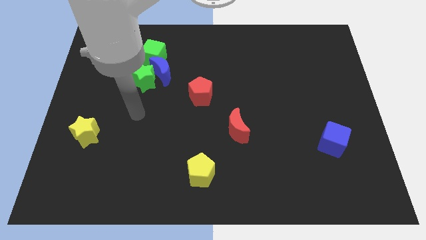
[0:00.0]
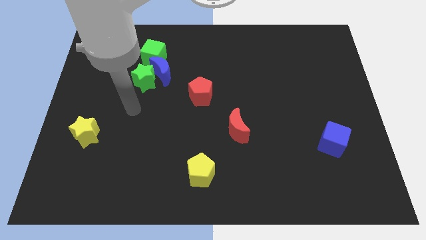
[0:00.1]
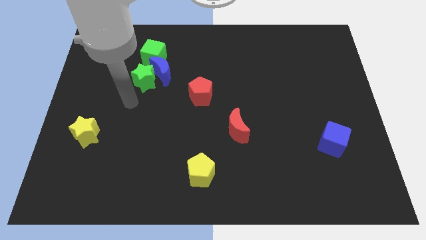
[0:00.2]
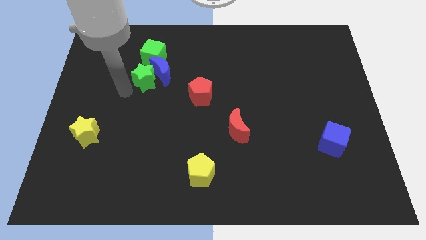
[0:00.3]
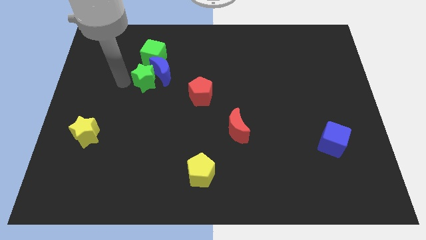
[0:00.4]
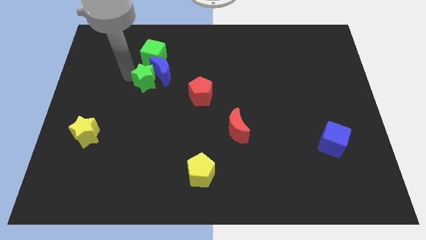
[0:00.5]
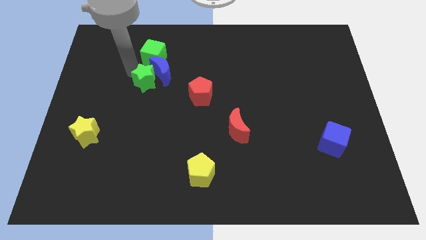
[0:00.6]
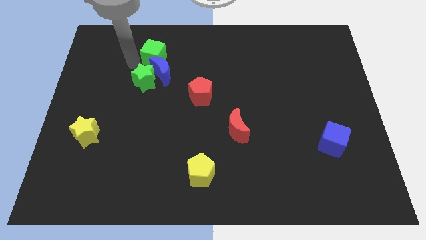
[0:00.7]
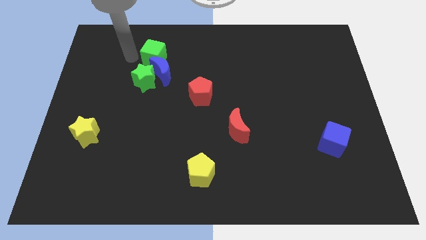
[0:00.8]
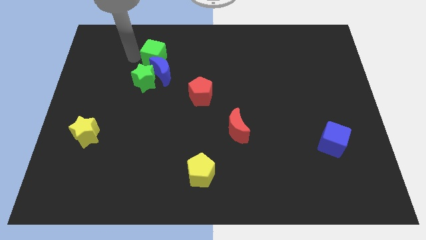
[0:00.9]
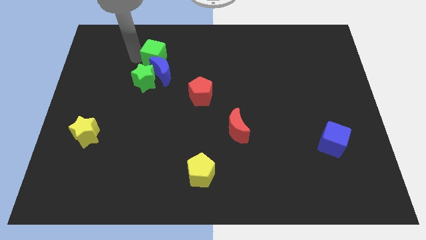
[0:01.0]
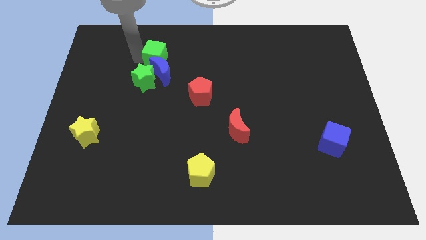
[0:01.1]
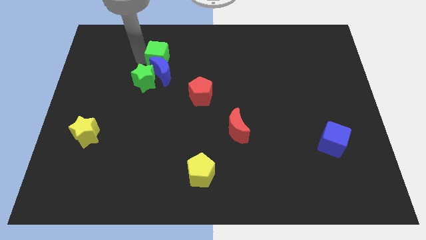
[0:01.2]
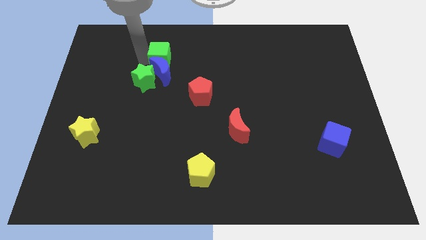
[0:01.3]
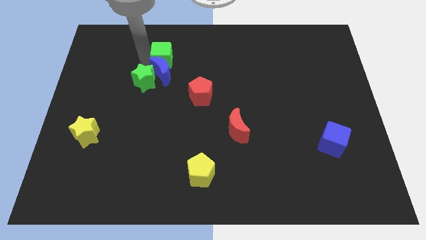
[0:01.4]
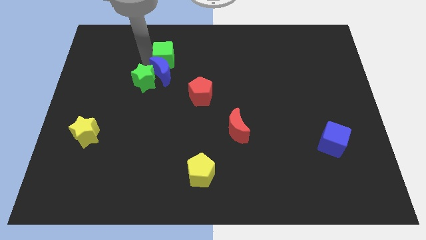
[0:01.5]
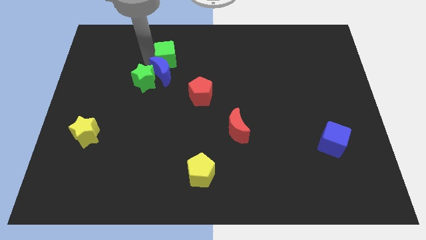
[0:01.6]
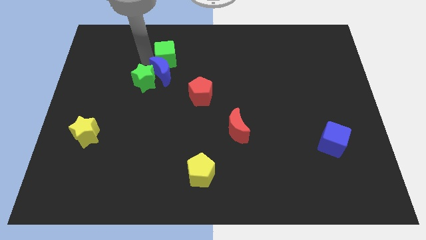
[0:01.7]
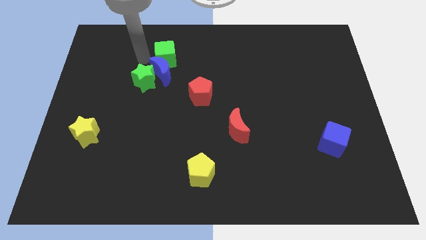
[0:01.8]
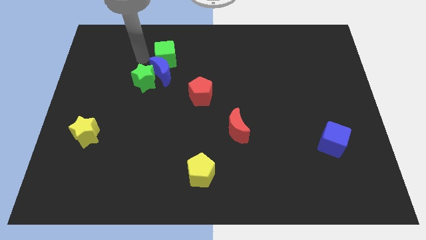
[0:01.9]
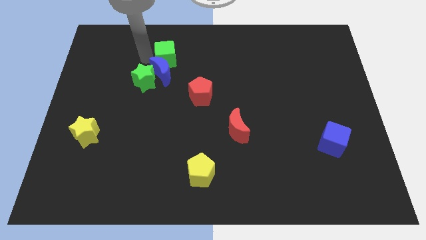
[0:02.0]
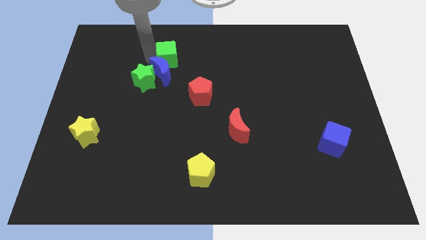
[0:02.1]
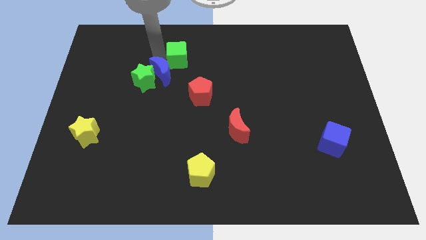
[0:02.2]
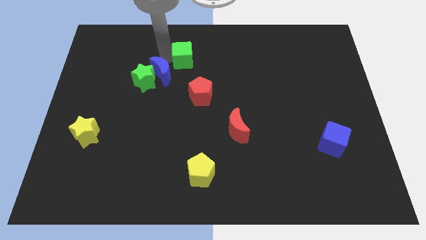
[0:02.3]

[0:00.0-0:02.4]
move the green cube a little bit right

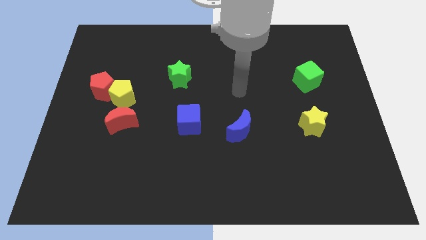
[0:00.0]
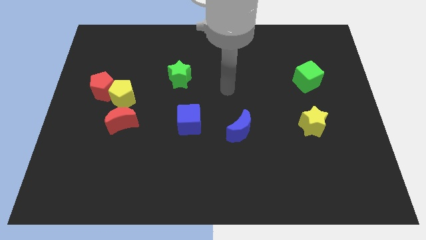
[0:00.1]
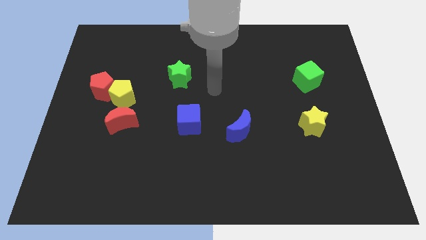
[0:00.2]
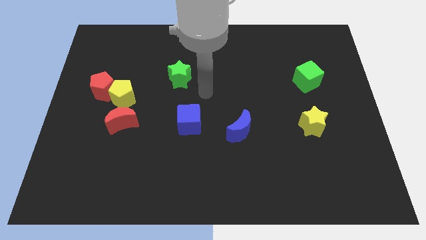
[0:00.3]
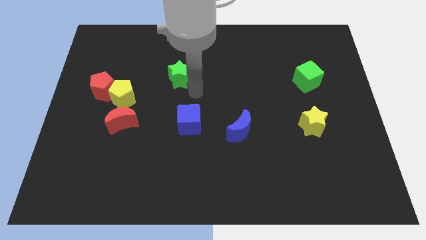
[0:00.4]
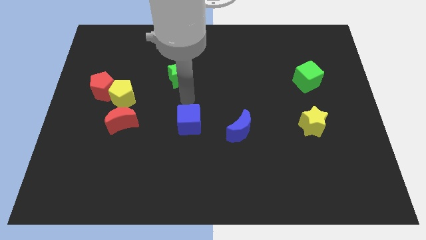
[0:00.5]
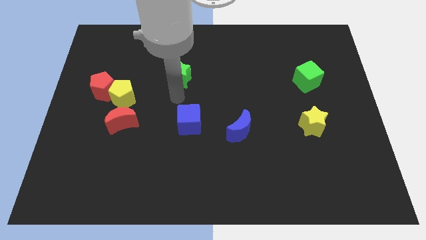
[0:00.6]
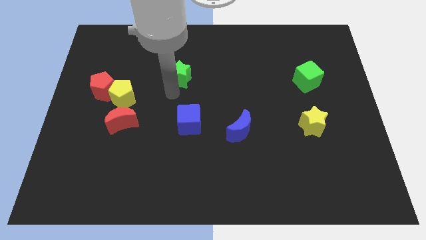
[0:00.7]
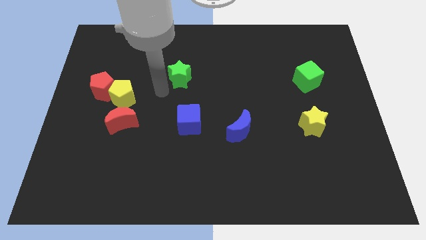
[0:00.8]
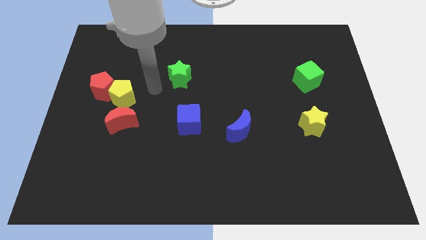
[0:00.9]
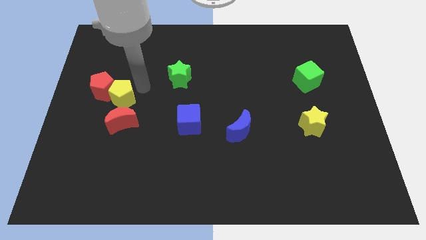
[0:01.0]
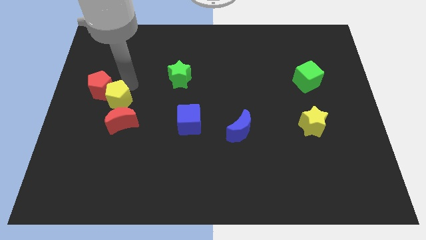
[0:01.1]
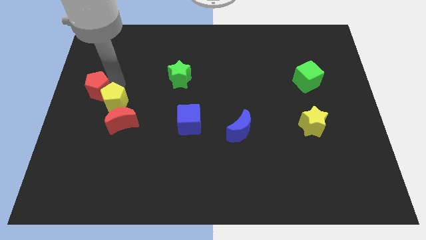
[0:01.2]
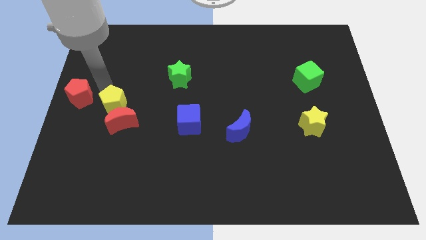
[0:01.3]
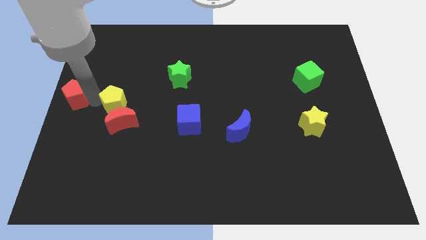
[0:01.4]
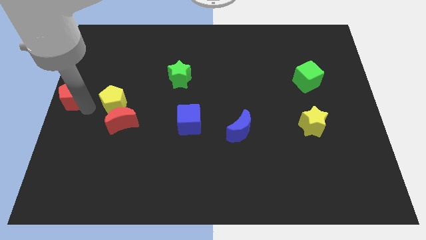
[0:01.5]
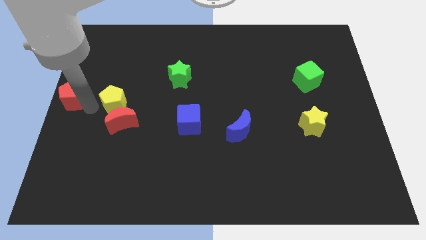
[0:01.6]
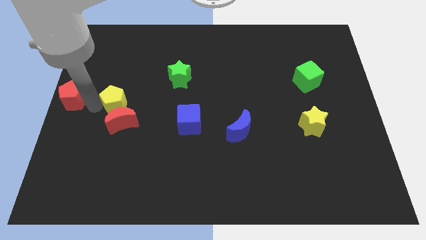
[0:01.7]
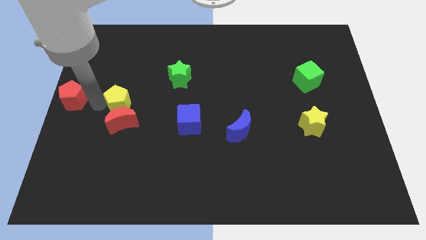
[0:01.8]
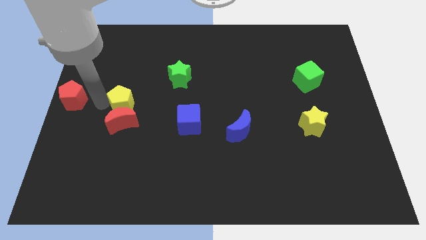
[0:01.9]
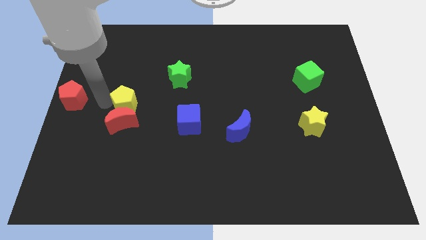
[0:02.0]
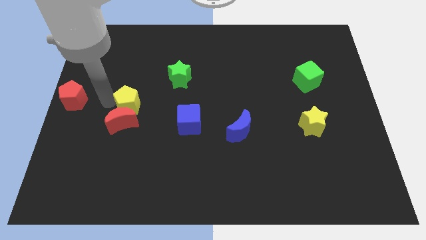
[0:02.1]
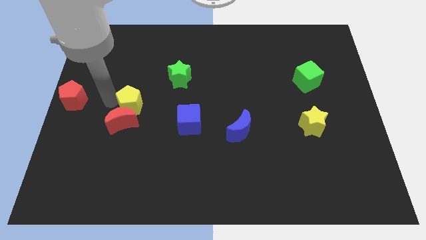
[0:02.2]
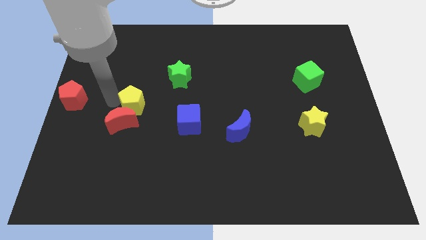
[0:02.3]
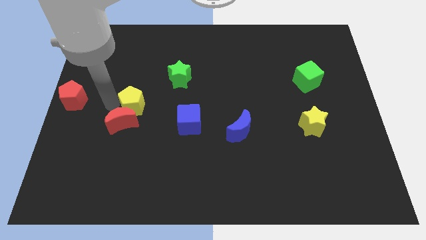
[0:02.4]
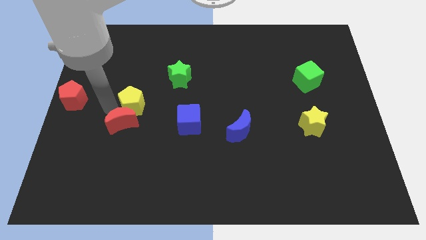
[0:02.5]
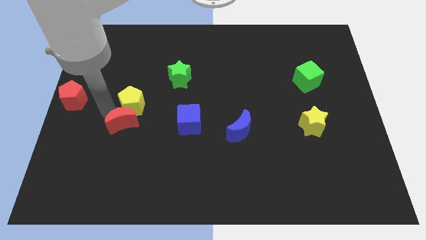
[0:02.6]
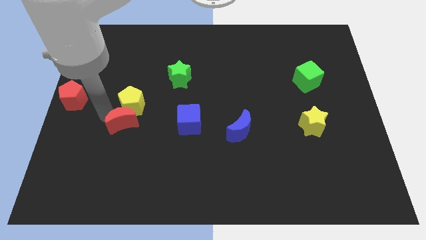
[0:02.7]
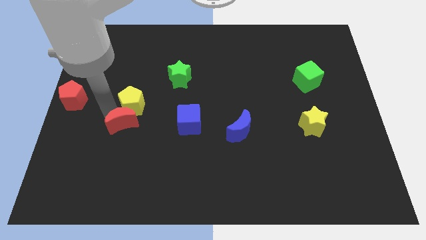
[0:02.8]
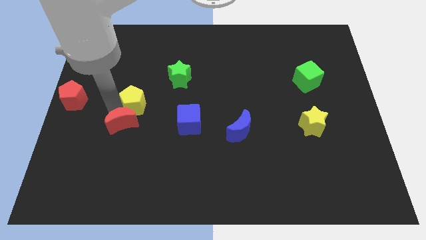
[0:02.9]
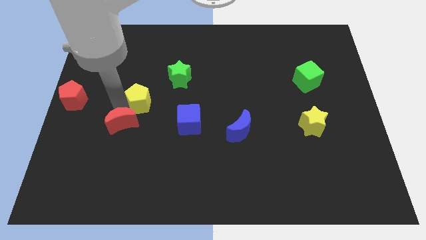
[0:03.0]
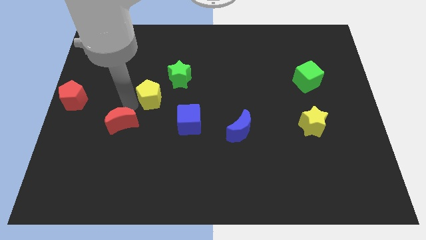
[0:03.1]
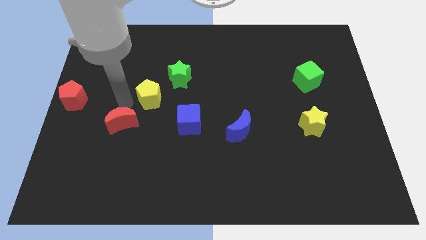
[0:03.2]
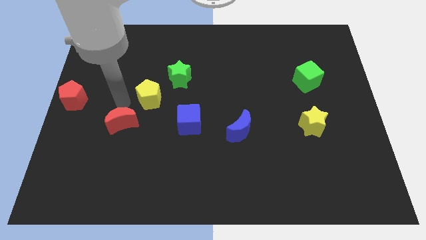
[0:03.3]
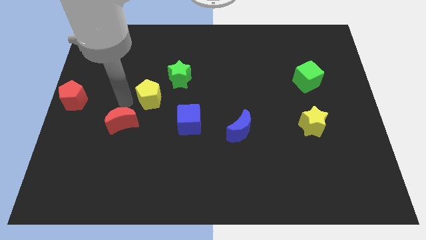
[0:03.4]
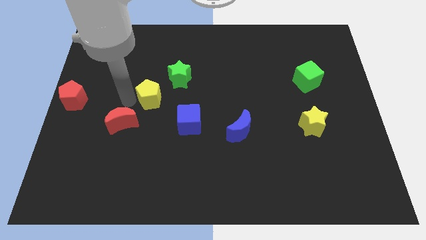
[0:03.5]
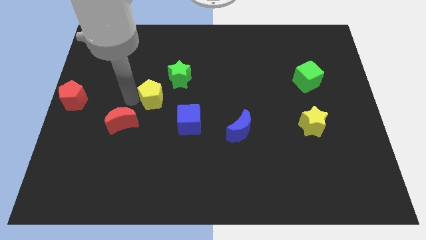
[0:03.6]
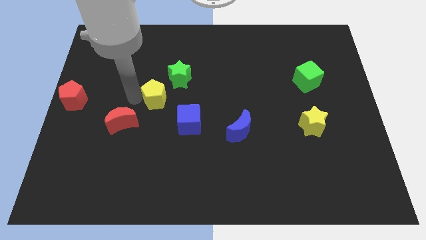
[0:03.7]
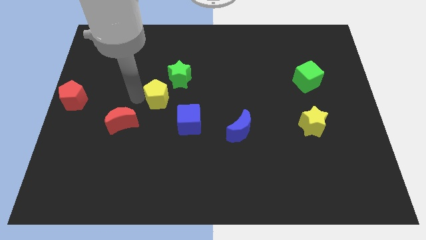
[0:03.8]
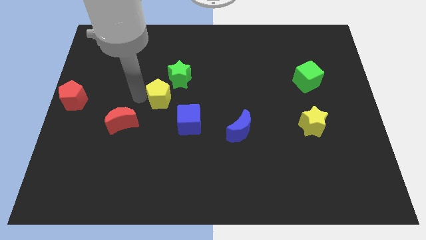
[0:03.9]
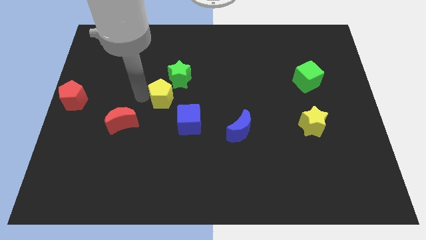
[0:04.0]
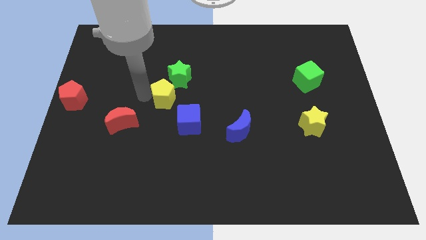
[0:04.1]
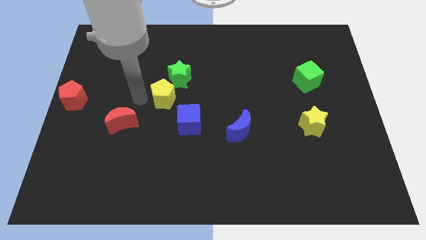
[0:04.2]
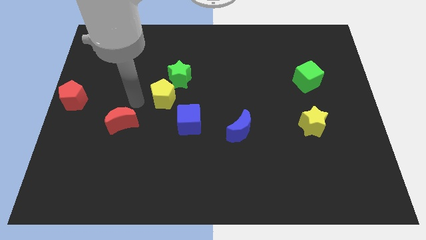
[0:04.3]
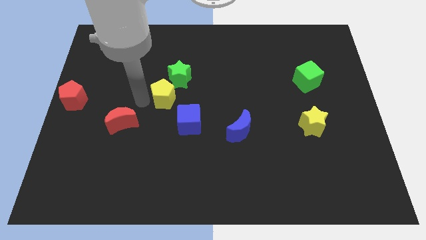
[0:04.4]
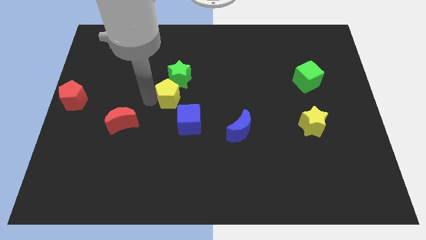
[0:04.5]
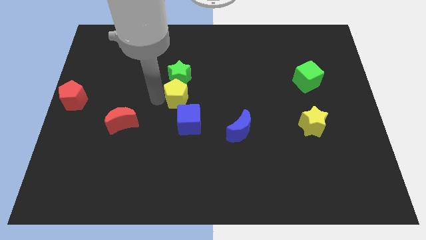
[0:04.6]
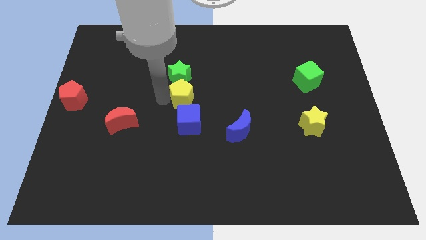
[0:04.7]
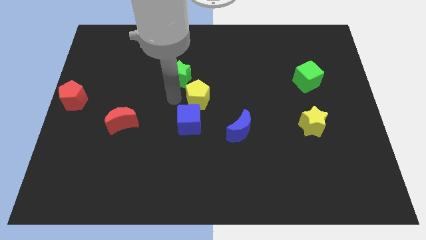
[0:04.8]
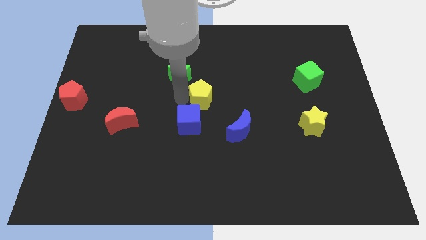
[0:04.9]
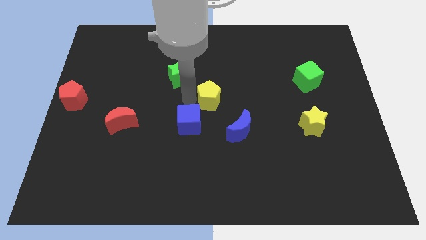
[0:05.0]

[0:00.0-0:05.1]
slide the yellow pentagon right
